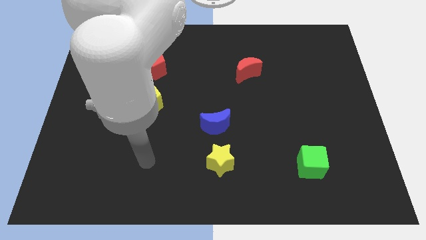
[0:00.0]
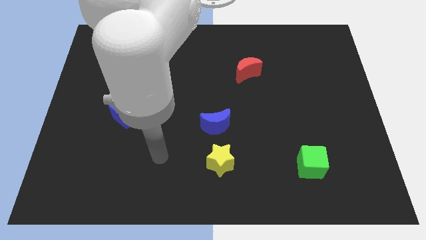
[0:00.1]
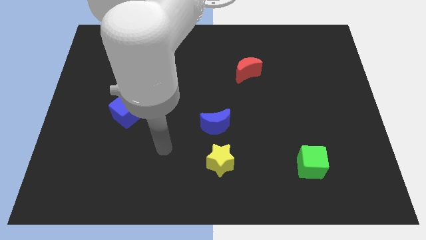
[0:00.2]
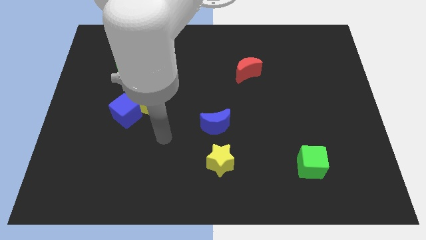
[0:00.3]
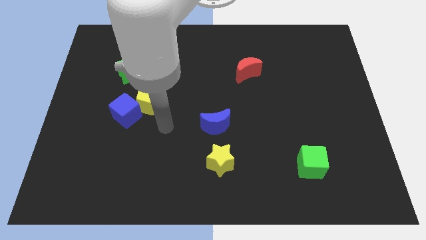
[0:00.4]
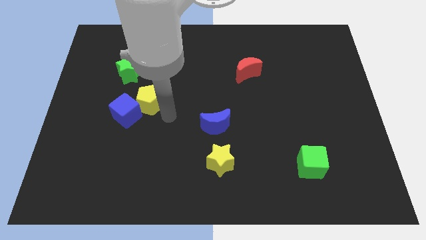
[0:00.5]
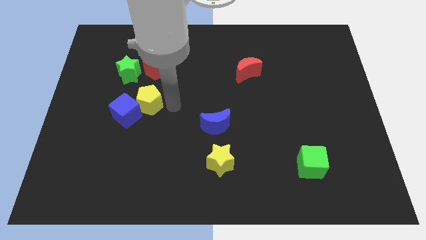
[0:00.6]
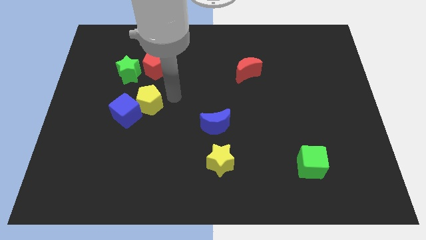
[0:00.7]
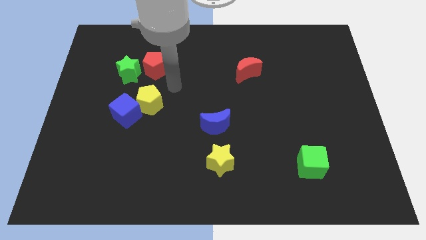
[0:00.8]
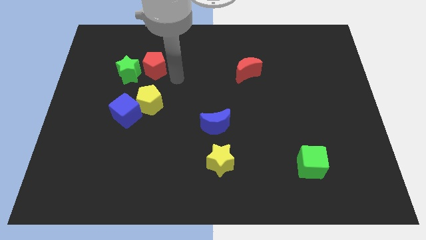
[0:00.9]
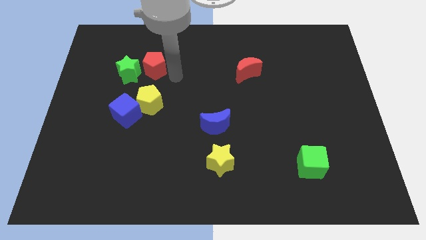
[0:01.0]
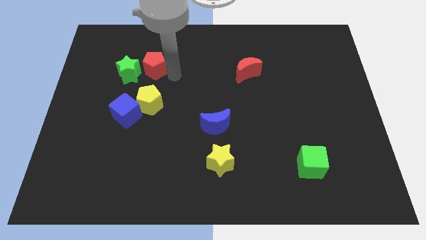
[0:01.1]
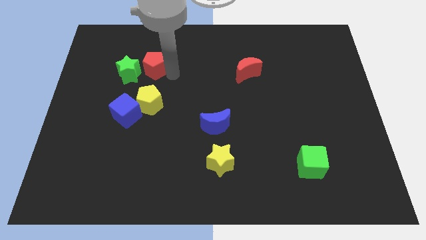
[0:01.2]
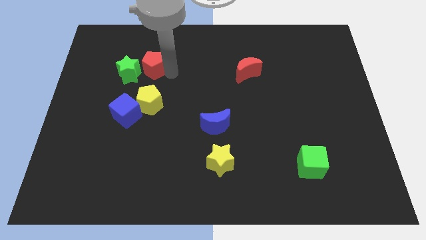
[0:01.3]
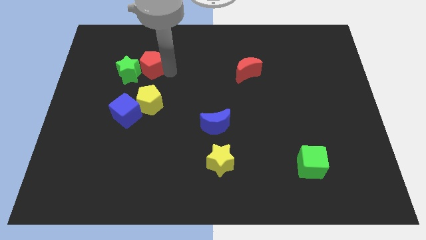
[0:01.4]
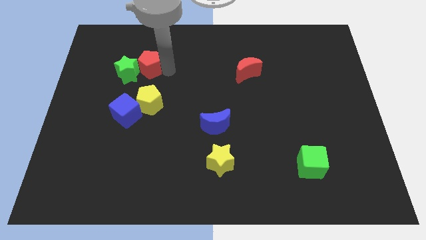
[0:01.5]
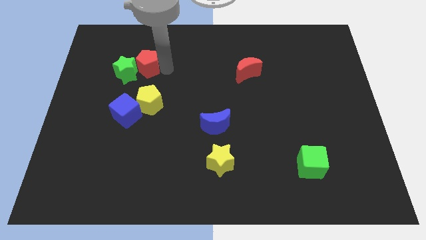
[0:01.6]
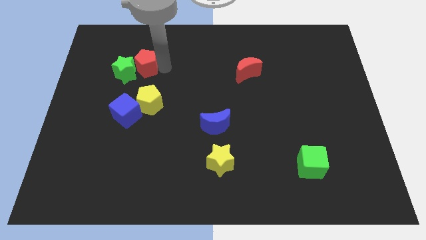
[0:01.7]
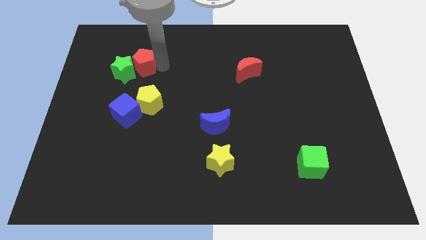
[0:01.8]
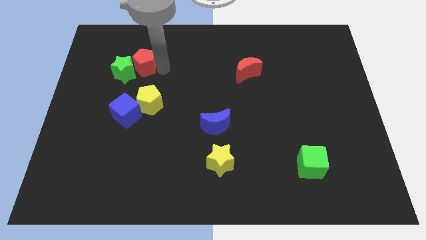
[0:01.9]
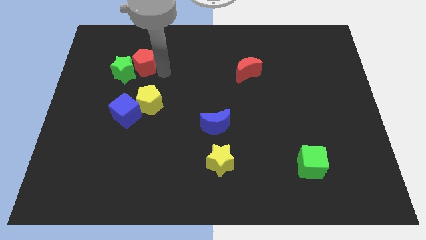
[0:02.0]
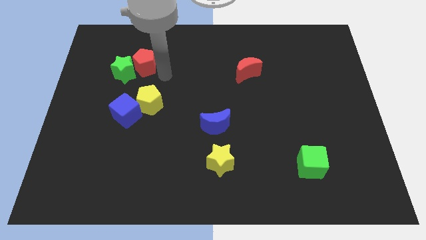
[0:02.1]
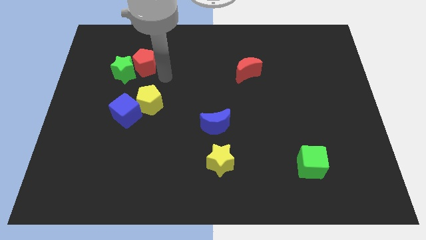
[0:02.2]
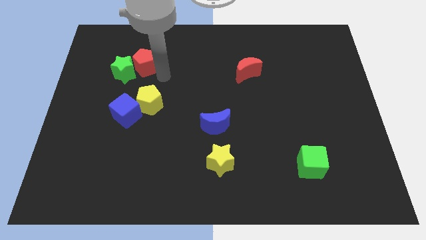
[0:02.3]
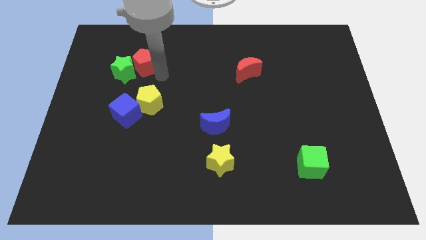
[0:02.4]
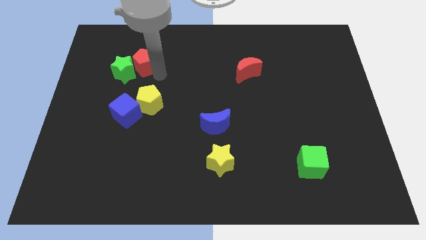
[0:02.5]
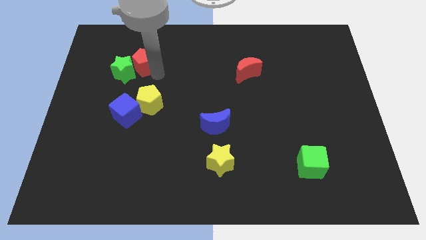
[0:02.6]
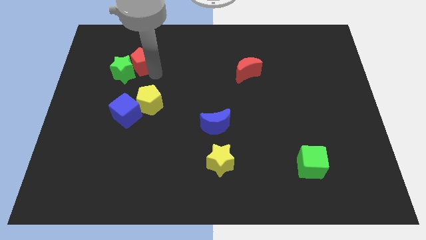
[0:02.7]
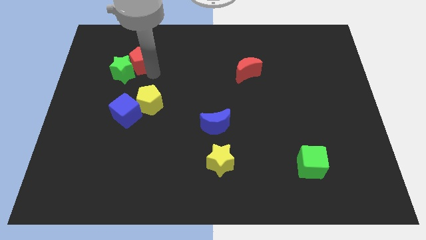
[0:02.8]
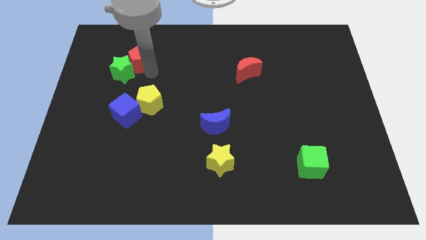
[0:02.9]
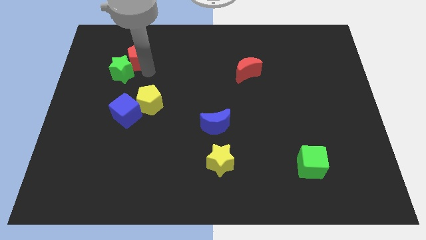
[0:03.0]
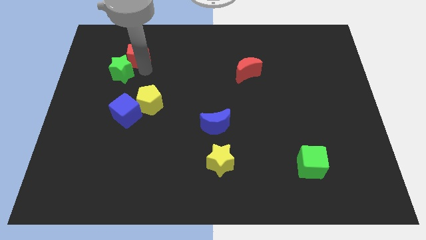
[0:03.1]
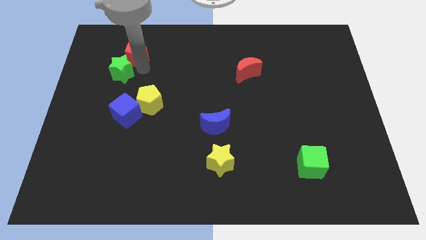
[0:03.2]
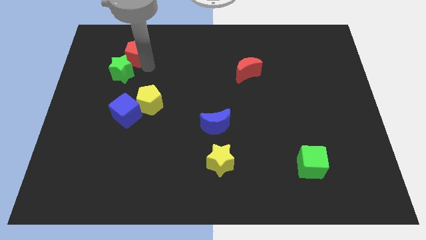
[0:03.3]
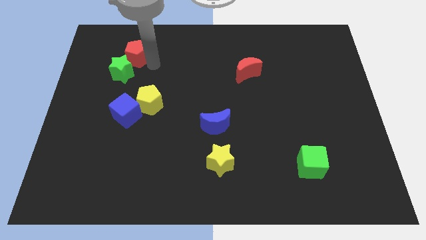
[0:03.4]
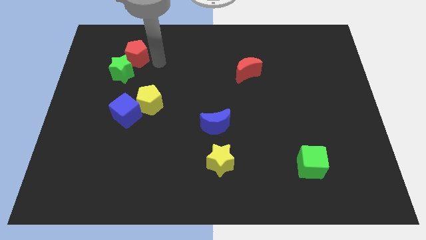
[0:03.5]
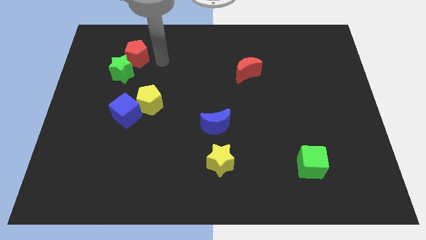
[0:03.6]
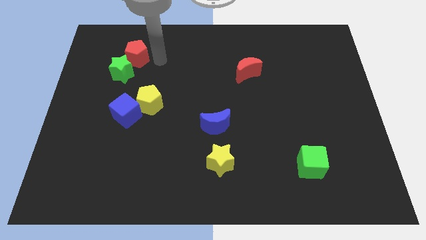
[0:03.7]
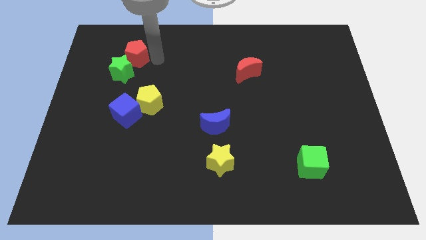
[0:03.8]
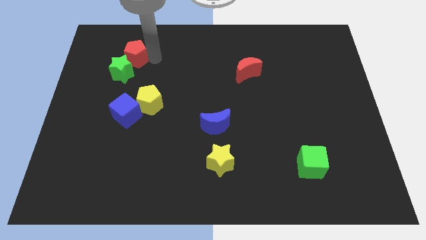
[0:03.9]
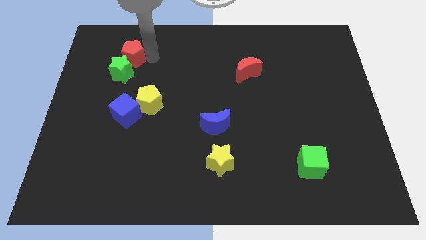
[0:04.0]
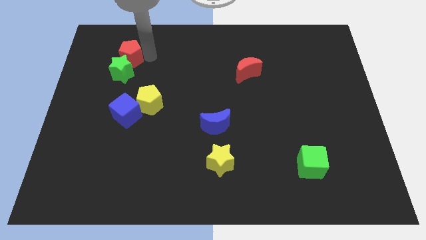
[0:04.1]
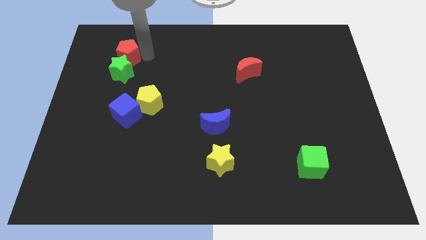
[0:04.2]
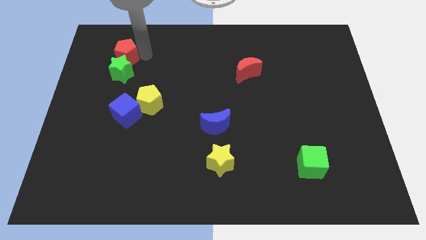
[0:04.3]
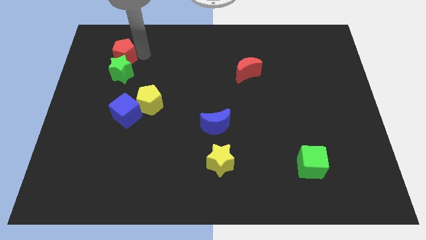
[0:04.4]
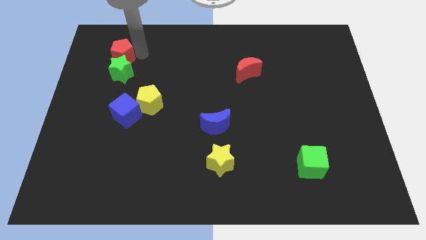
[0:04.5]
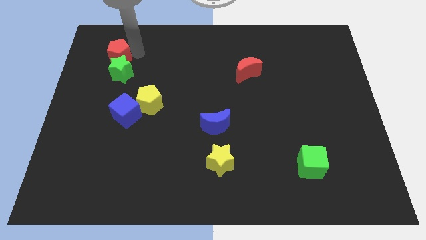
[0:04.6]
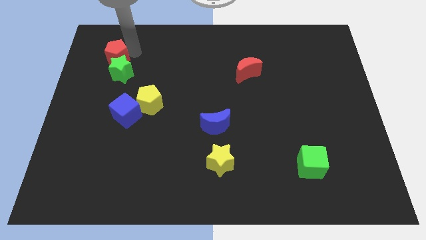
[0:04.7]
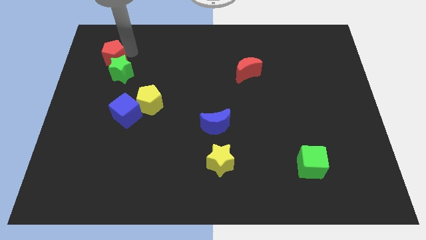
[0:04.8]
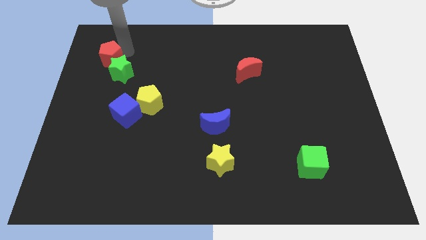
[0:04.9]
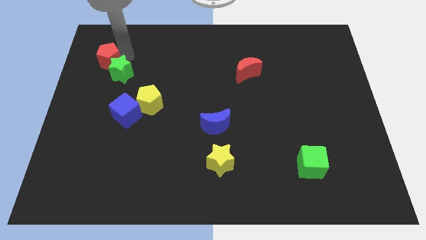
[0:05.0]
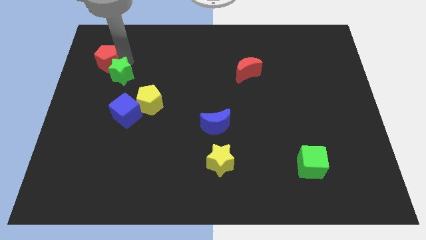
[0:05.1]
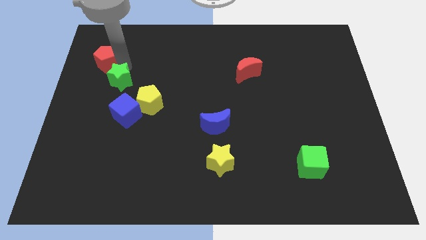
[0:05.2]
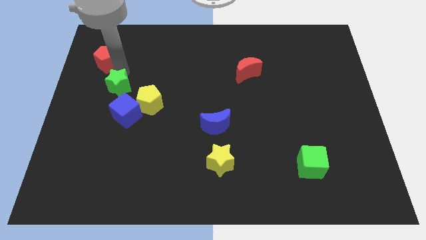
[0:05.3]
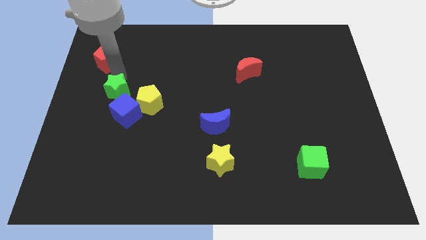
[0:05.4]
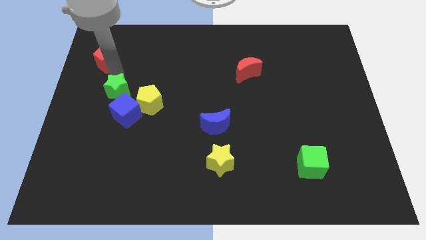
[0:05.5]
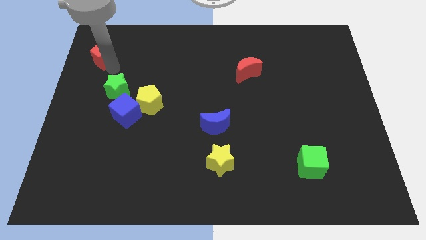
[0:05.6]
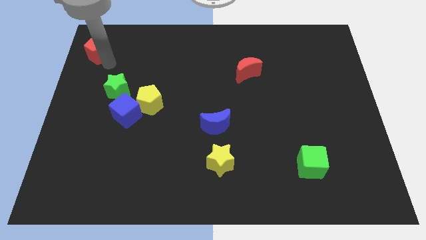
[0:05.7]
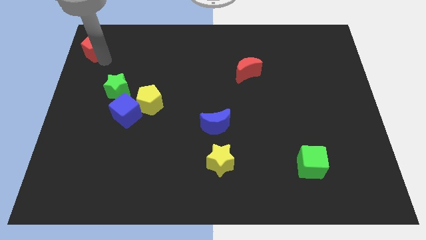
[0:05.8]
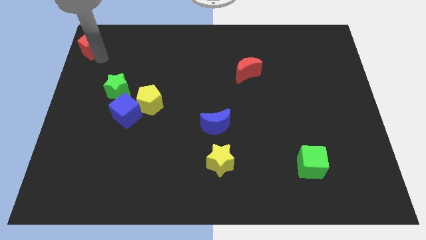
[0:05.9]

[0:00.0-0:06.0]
move the red pentagon to the top left corner

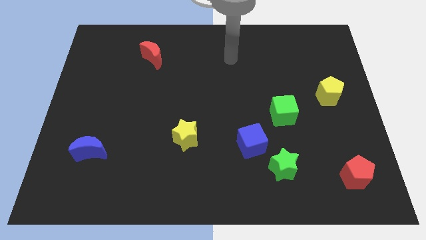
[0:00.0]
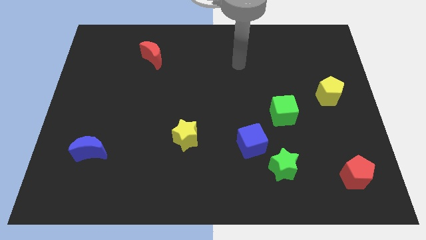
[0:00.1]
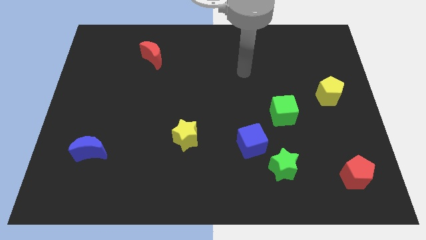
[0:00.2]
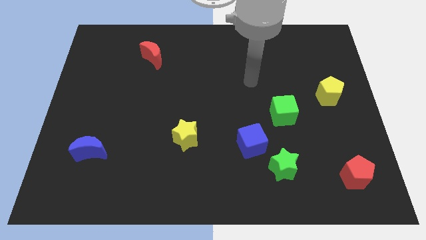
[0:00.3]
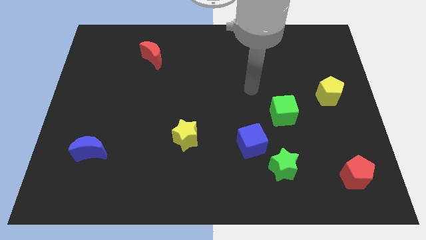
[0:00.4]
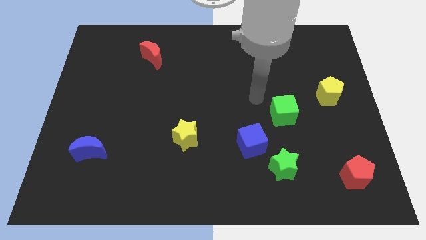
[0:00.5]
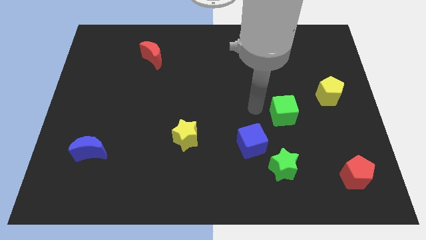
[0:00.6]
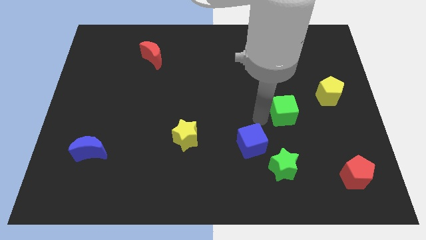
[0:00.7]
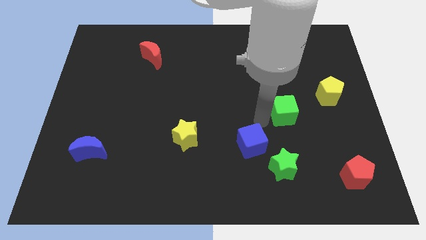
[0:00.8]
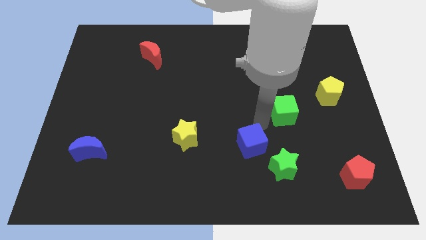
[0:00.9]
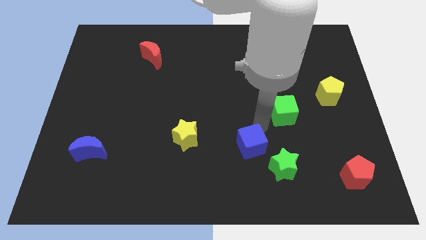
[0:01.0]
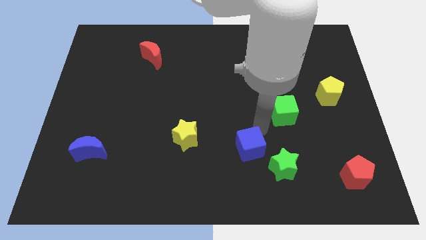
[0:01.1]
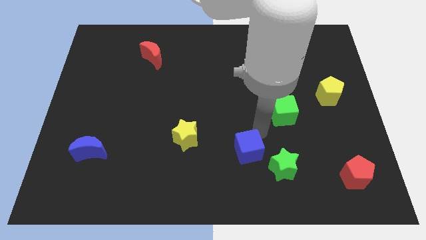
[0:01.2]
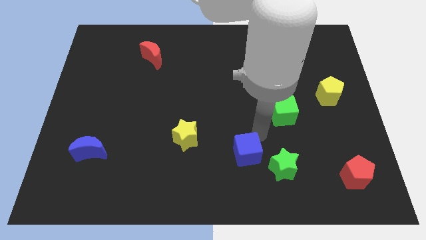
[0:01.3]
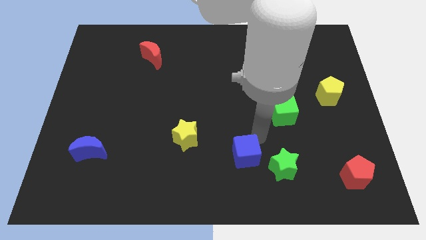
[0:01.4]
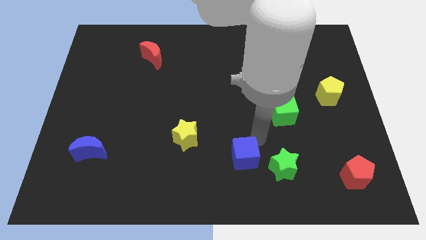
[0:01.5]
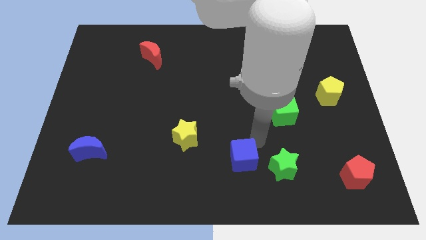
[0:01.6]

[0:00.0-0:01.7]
move the blue cube to the bottom side
